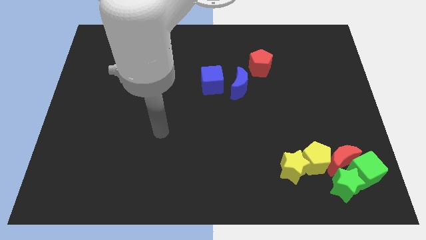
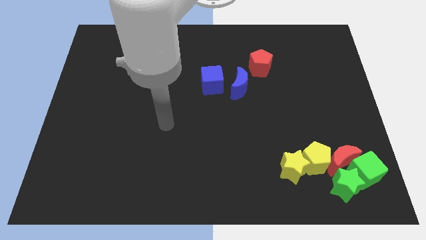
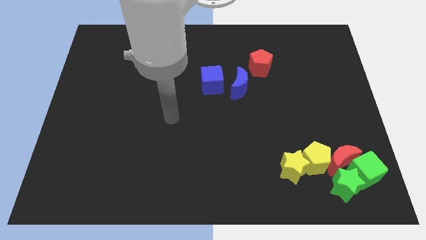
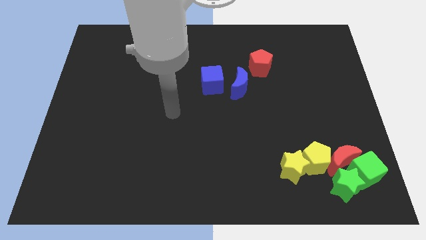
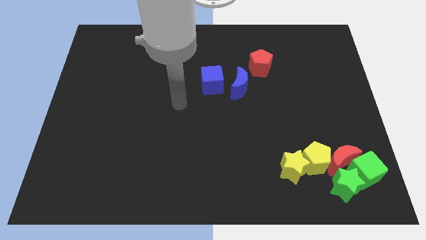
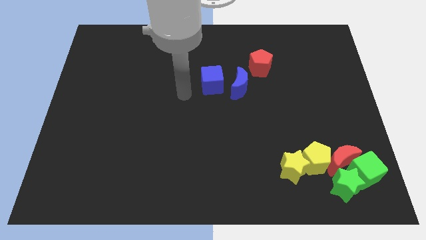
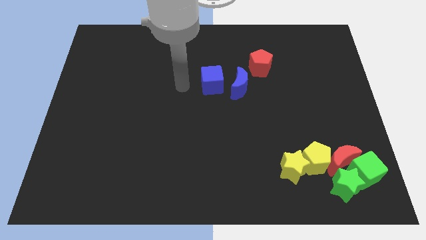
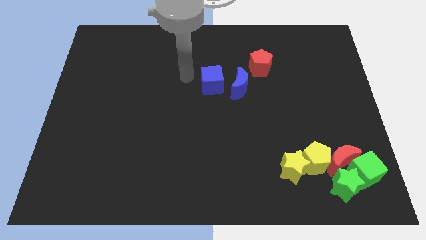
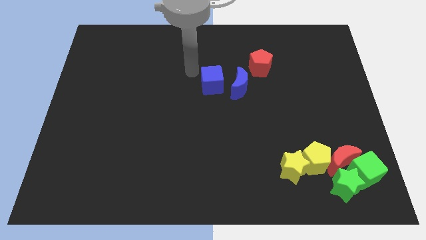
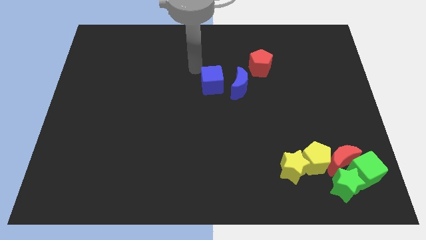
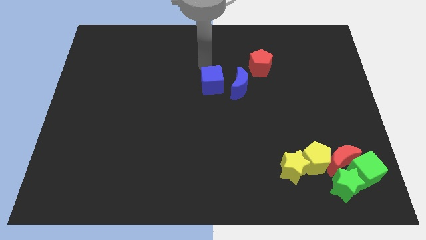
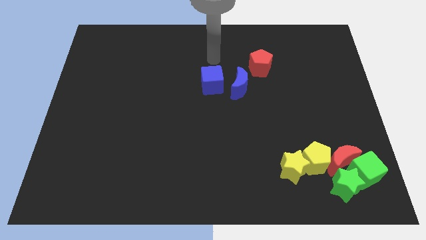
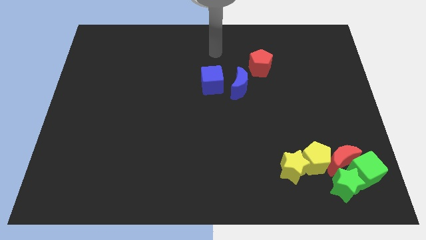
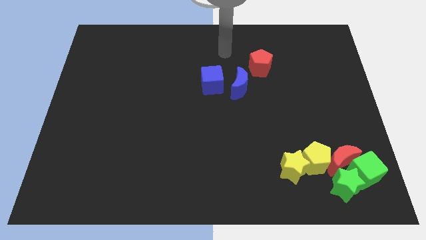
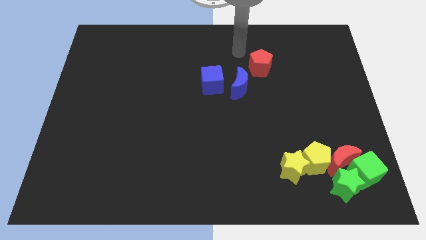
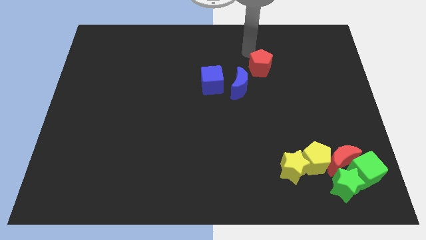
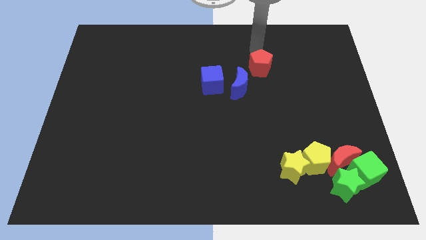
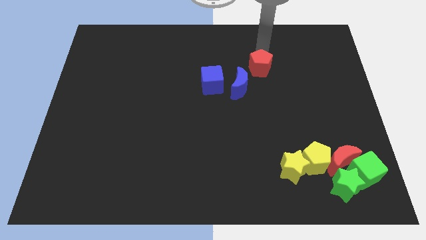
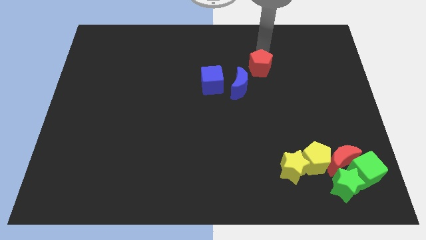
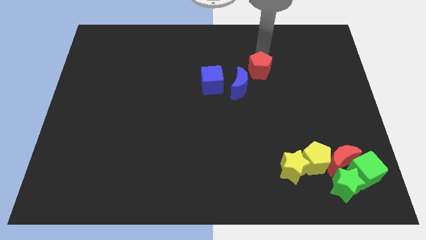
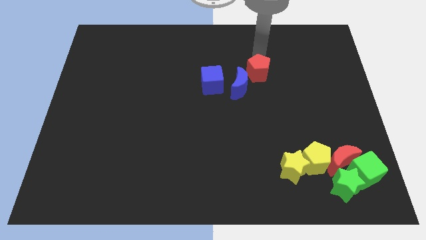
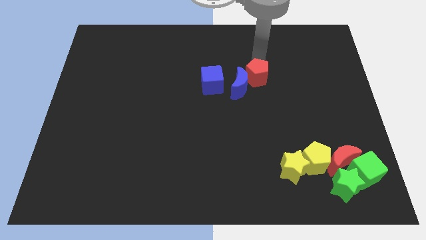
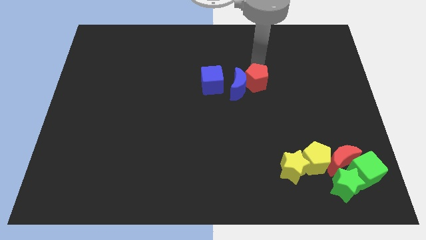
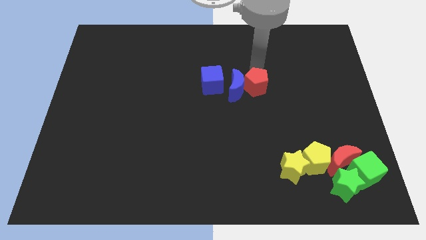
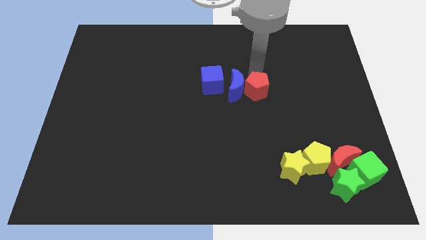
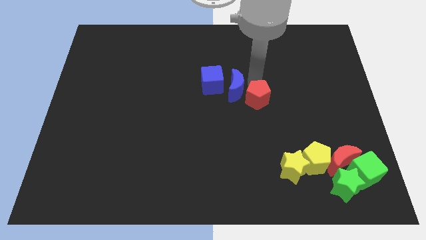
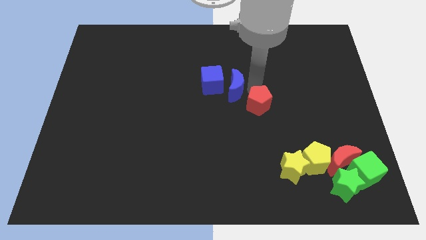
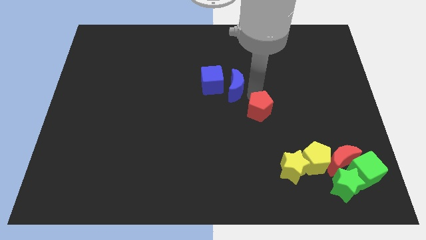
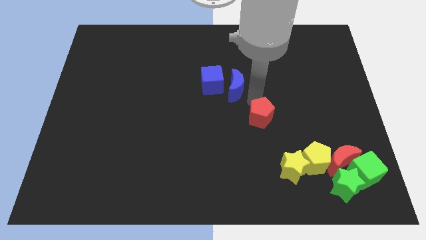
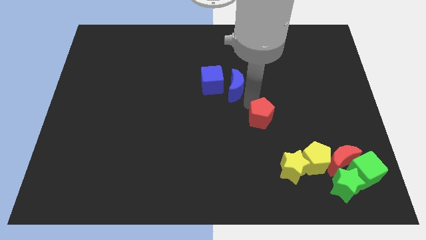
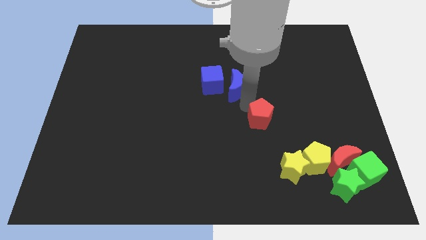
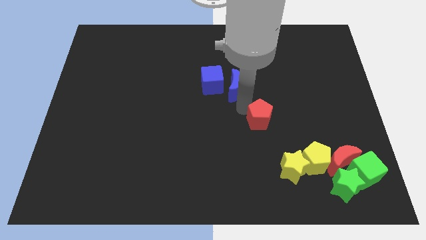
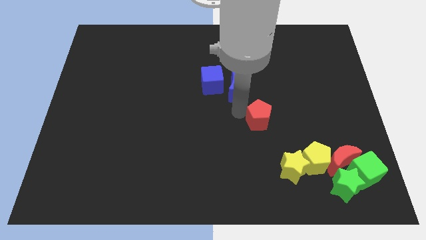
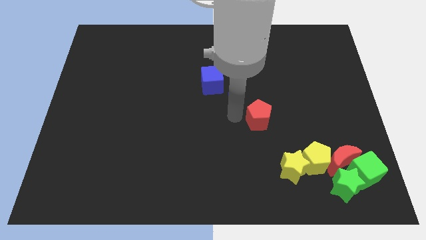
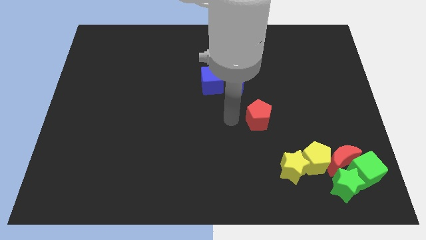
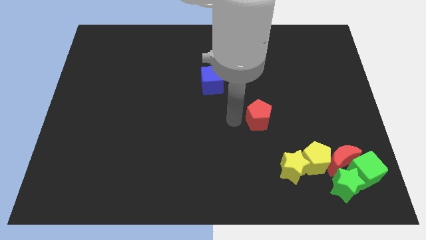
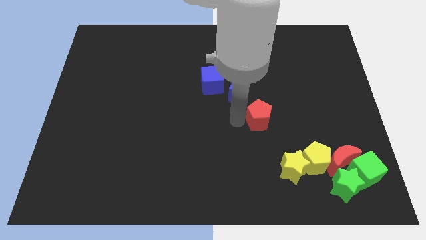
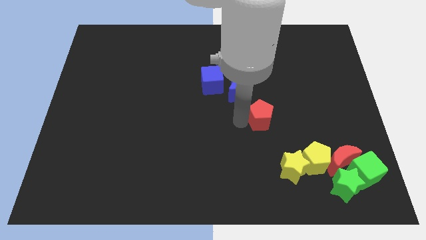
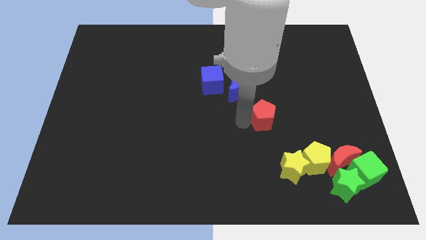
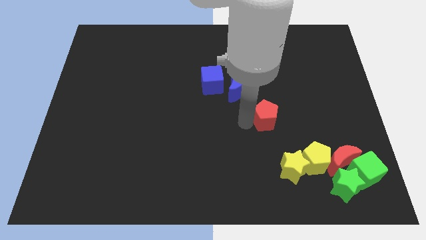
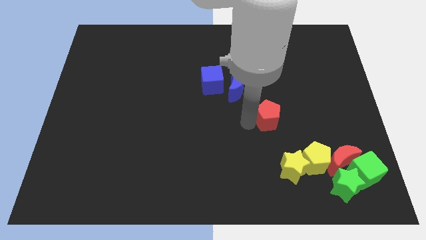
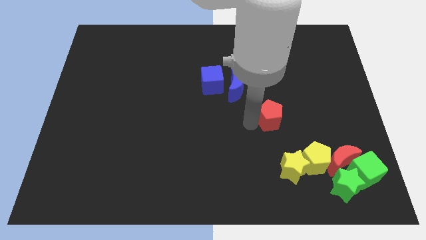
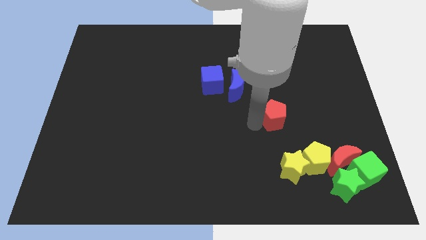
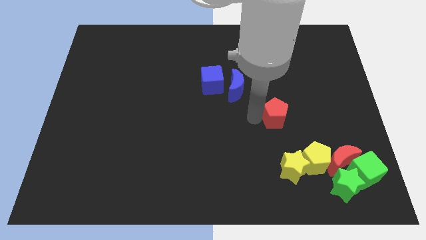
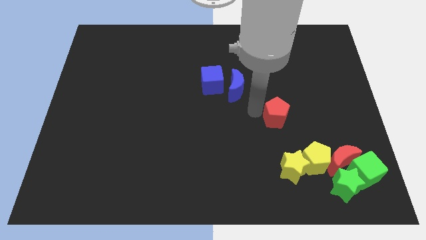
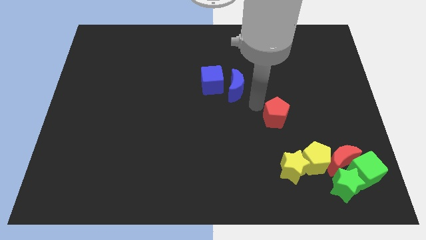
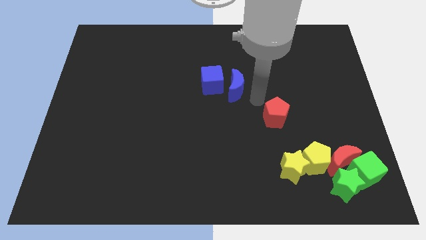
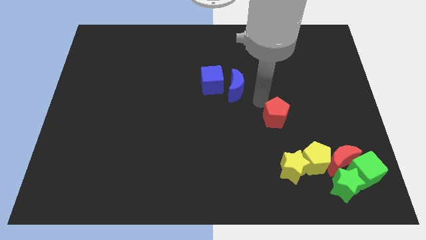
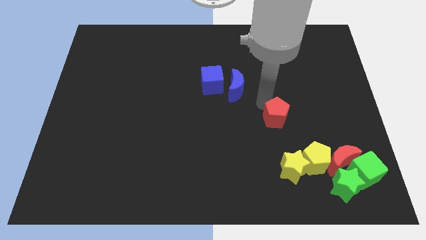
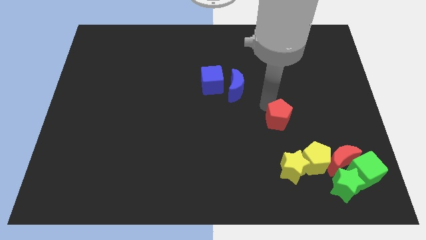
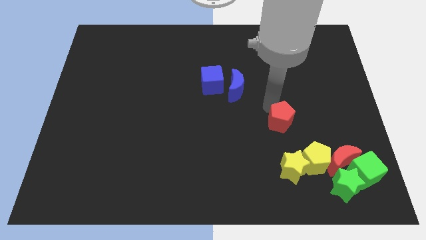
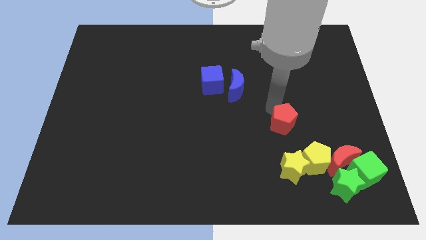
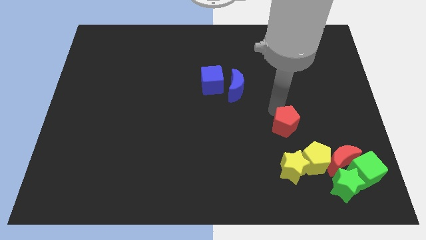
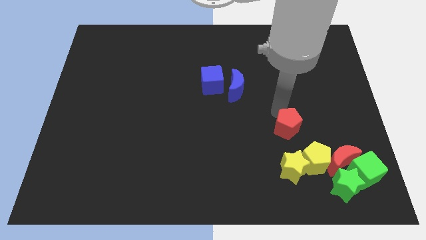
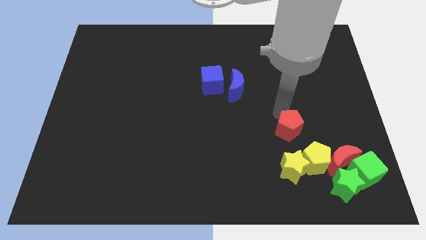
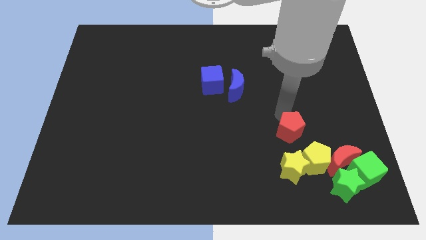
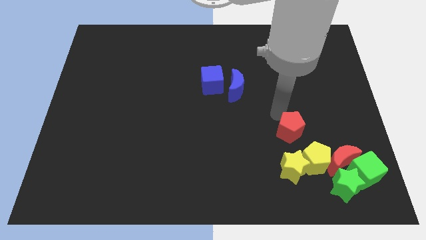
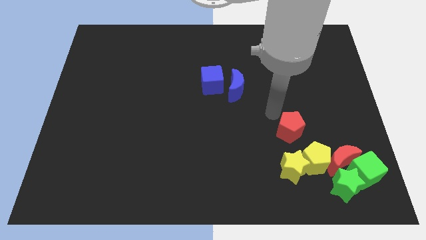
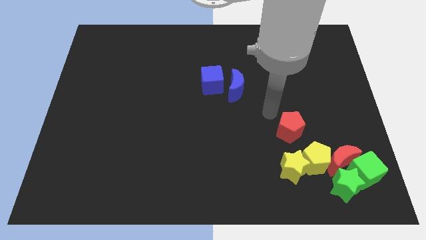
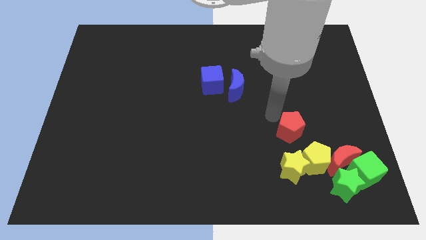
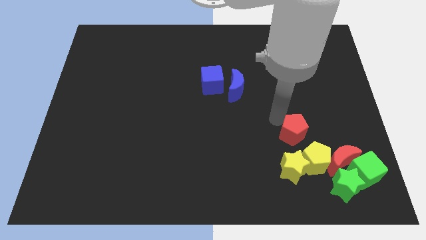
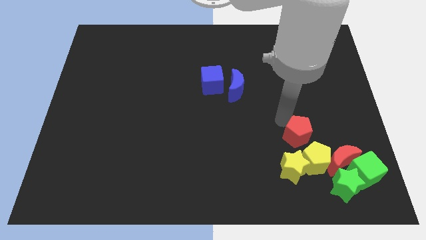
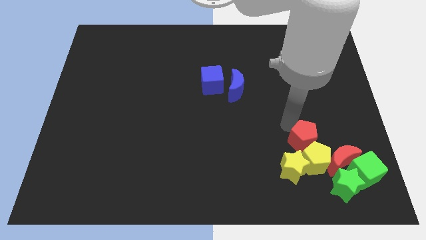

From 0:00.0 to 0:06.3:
slide the red pentagon towards the yellow pentagon
